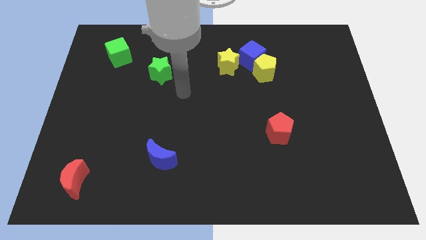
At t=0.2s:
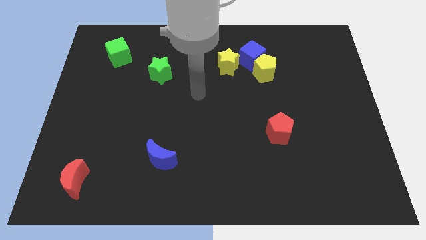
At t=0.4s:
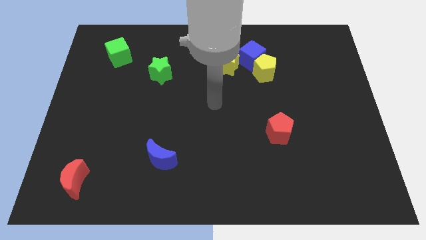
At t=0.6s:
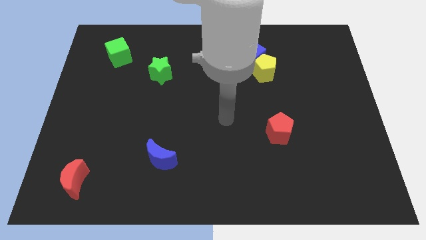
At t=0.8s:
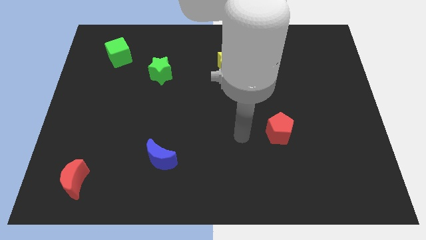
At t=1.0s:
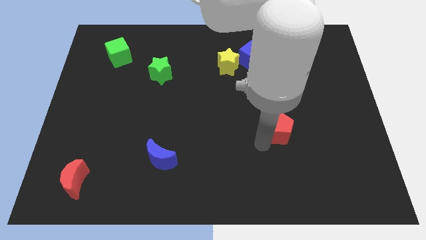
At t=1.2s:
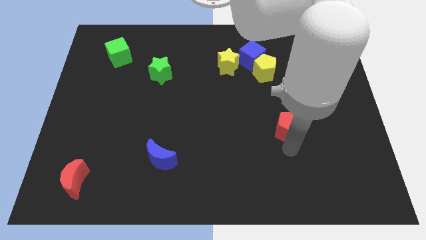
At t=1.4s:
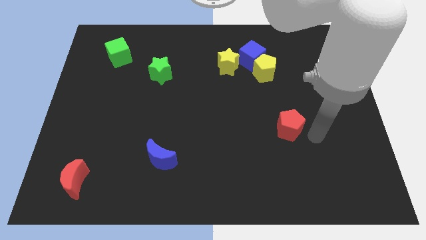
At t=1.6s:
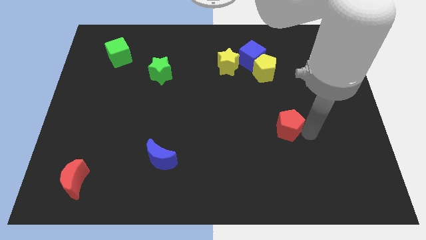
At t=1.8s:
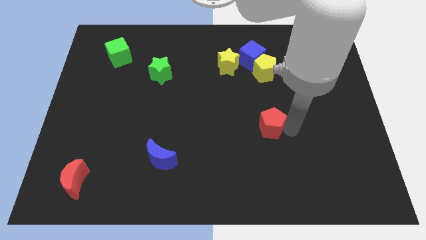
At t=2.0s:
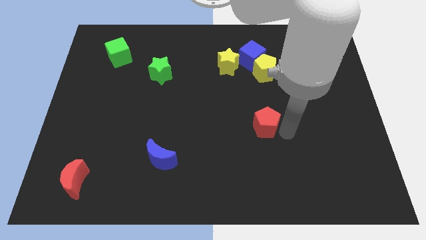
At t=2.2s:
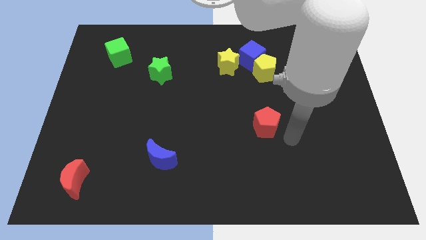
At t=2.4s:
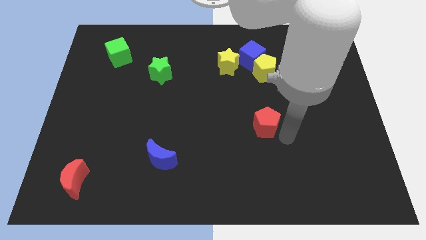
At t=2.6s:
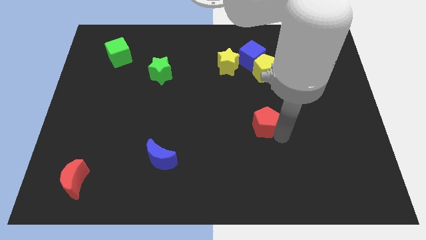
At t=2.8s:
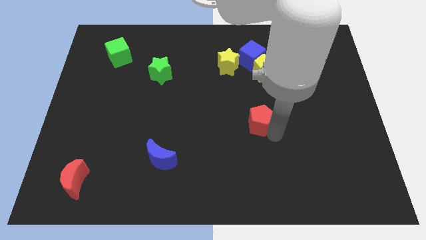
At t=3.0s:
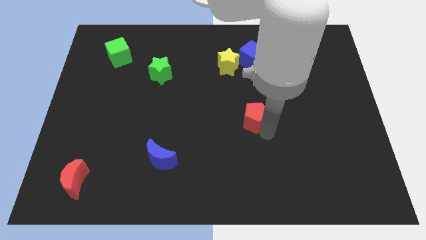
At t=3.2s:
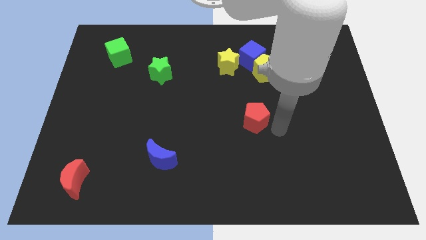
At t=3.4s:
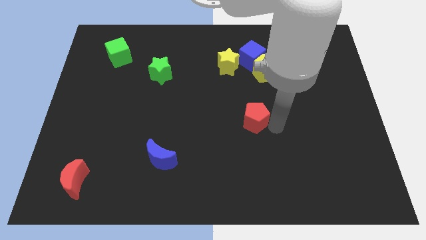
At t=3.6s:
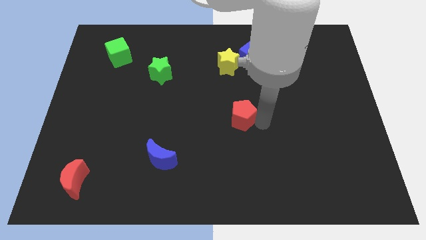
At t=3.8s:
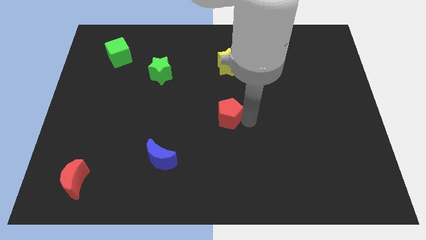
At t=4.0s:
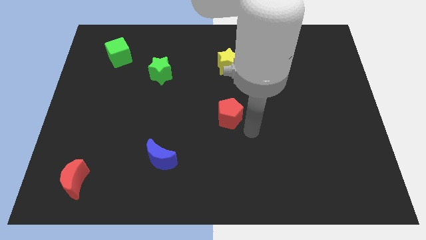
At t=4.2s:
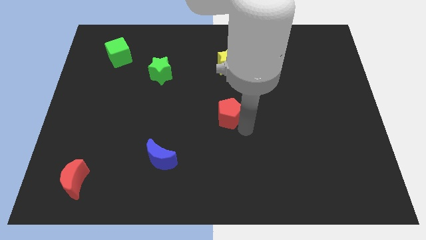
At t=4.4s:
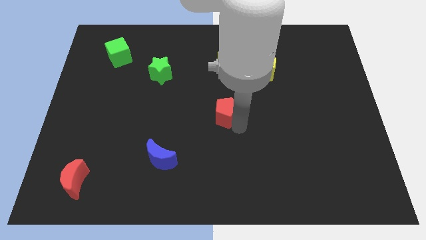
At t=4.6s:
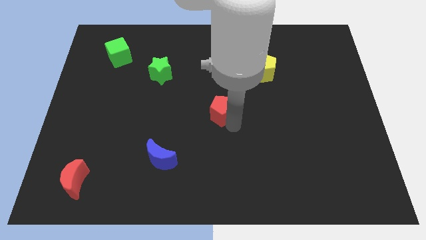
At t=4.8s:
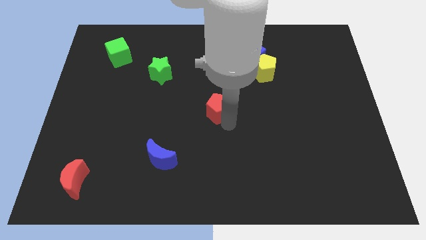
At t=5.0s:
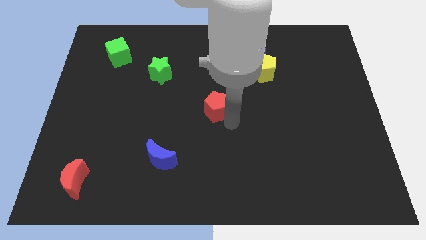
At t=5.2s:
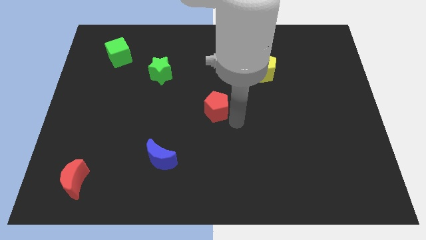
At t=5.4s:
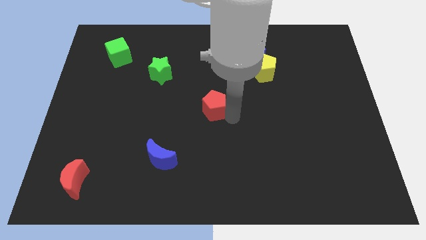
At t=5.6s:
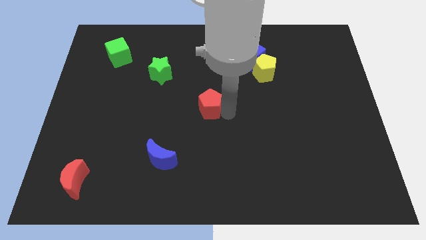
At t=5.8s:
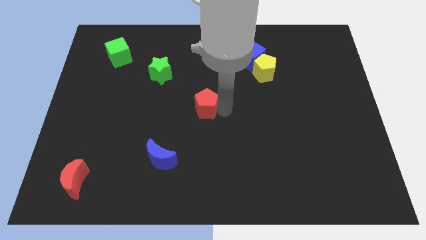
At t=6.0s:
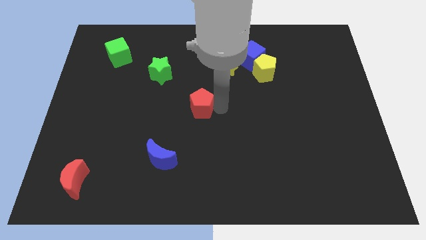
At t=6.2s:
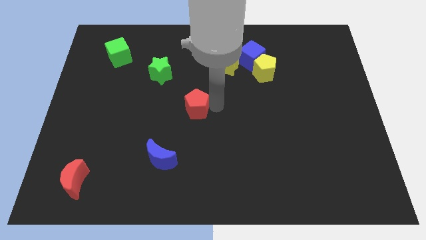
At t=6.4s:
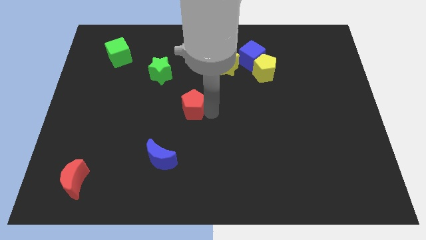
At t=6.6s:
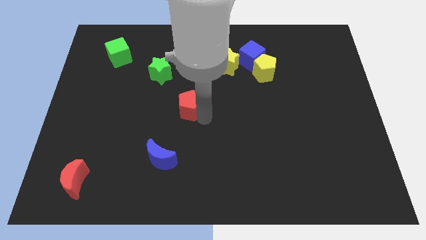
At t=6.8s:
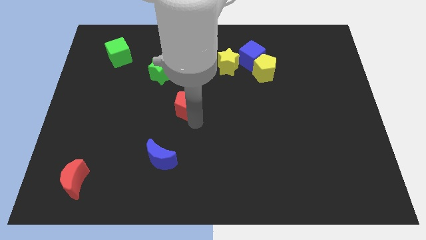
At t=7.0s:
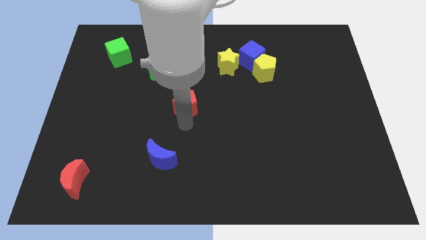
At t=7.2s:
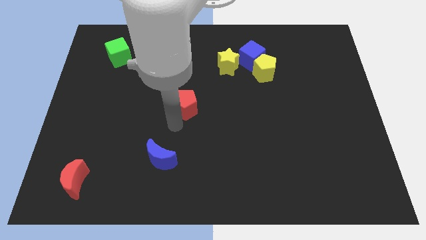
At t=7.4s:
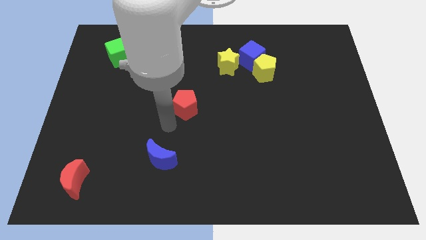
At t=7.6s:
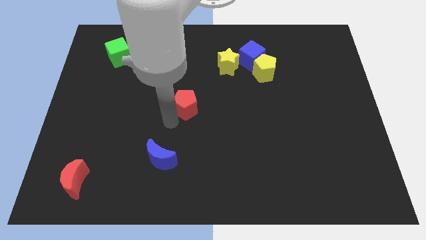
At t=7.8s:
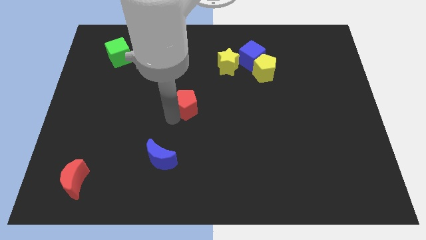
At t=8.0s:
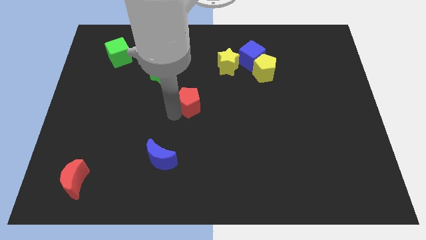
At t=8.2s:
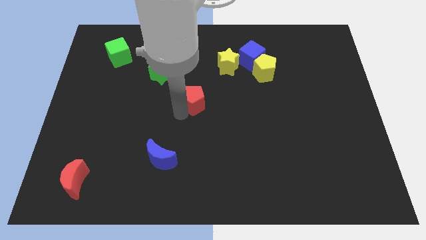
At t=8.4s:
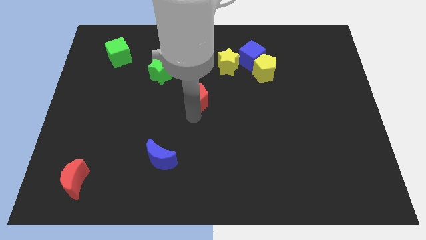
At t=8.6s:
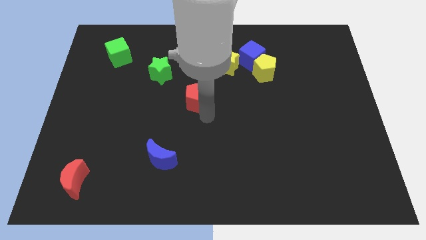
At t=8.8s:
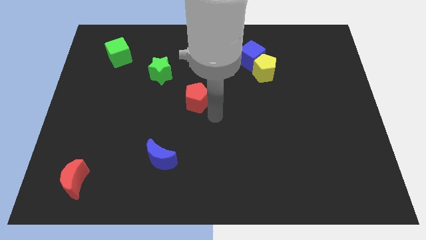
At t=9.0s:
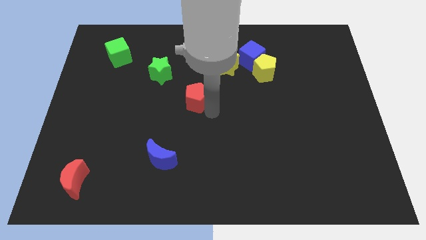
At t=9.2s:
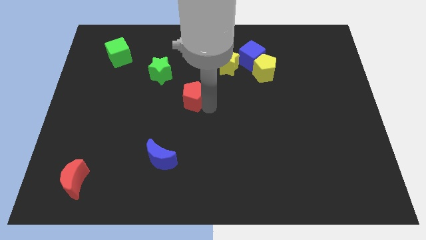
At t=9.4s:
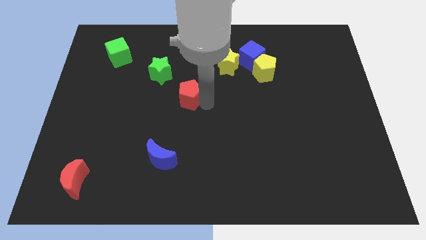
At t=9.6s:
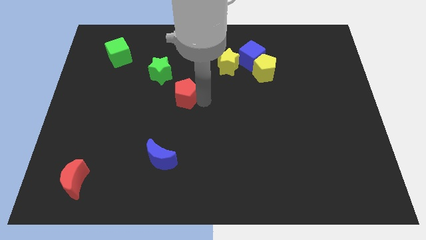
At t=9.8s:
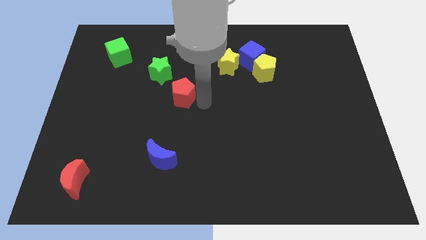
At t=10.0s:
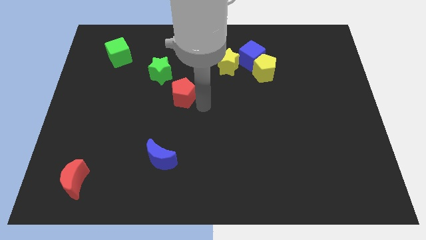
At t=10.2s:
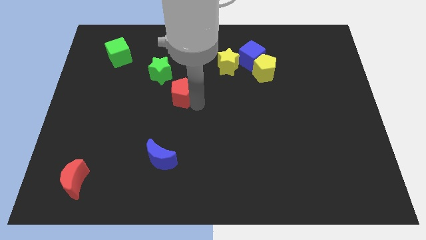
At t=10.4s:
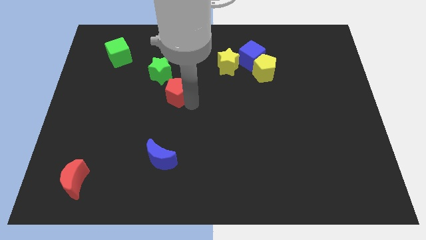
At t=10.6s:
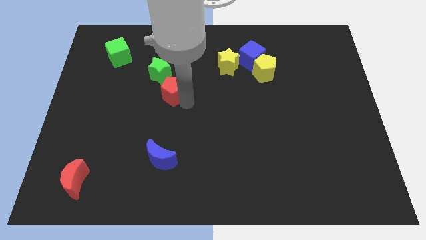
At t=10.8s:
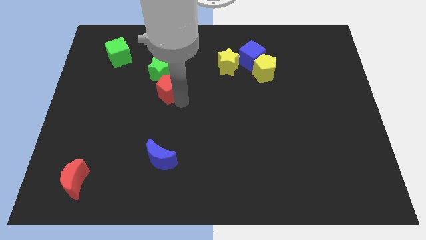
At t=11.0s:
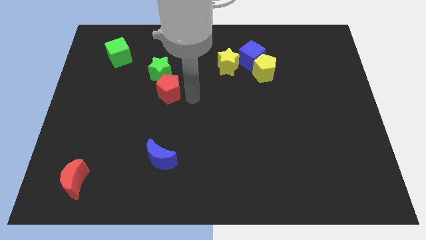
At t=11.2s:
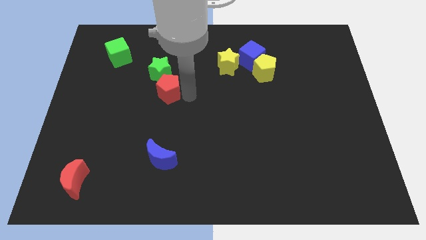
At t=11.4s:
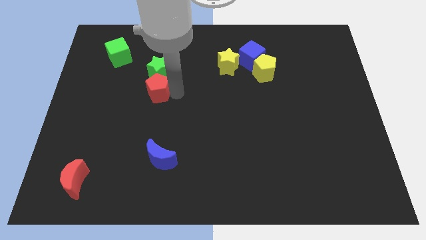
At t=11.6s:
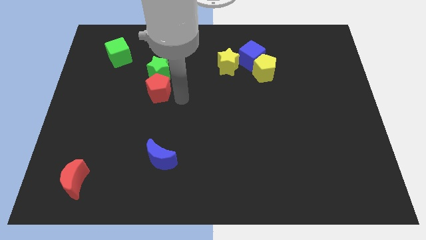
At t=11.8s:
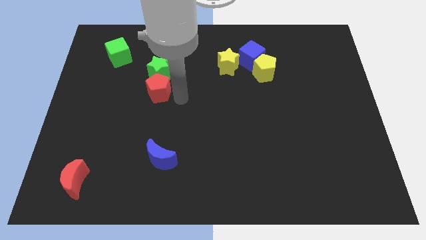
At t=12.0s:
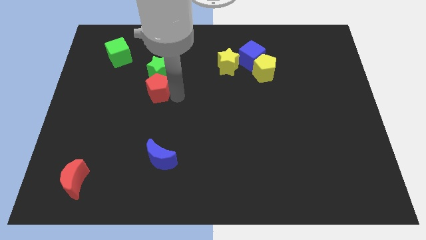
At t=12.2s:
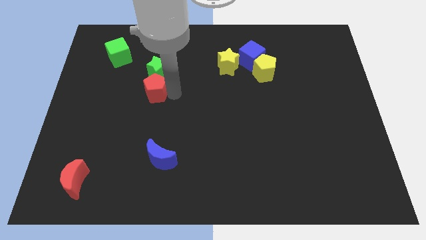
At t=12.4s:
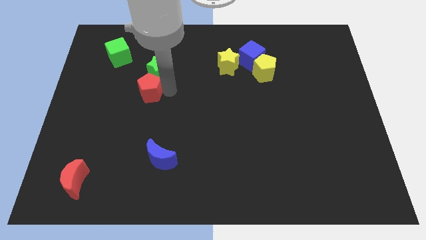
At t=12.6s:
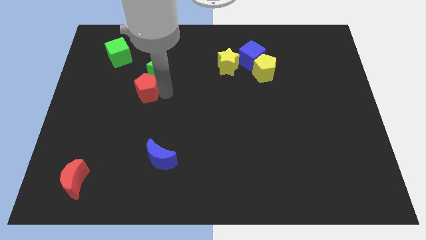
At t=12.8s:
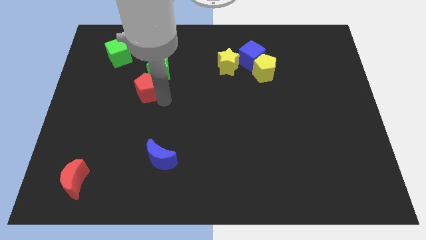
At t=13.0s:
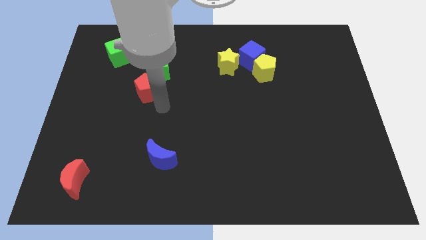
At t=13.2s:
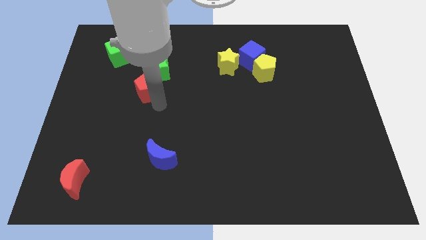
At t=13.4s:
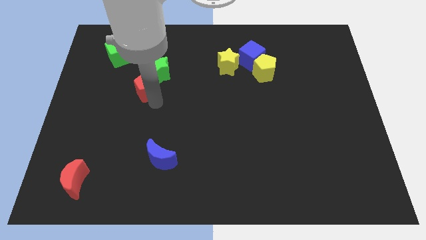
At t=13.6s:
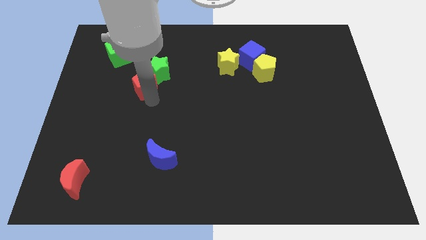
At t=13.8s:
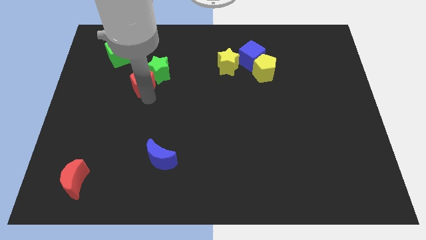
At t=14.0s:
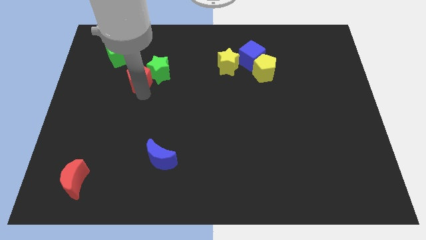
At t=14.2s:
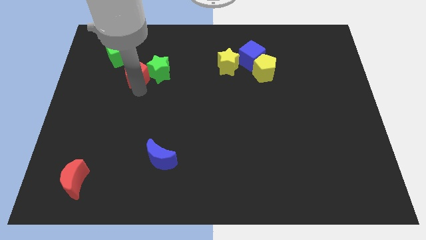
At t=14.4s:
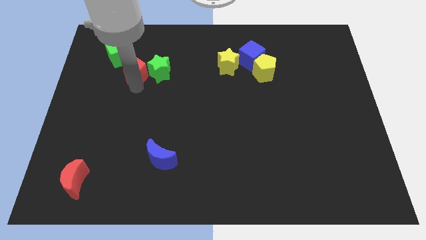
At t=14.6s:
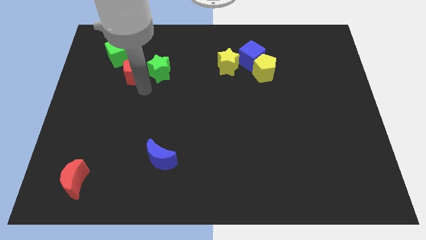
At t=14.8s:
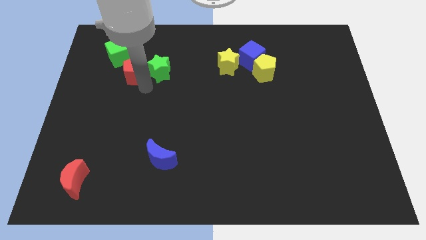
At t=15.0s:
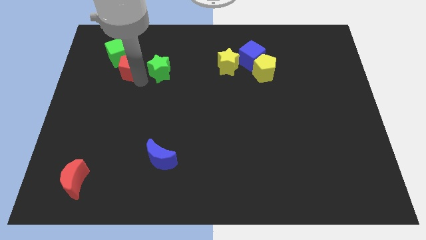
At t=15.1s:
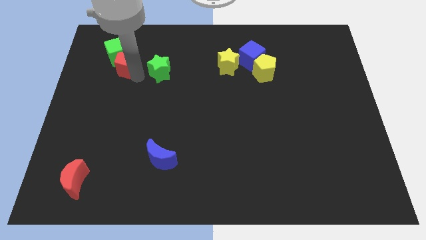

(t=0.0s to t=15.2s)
move the red pentagon to the green cube
